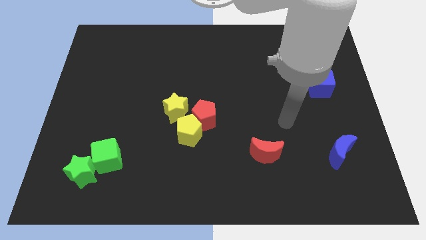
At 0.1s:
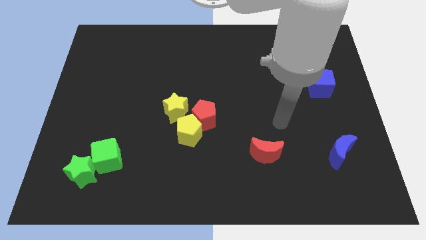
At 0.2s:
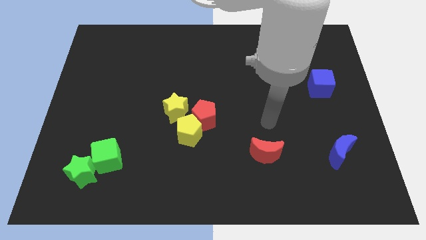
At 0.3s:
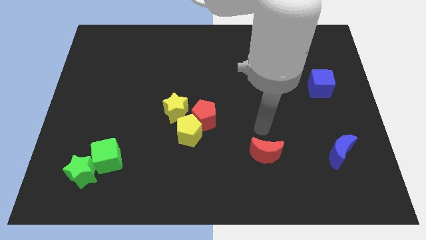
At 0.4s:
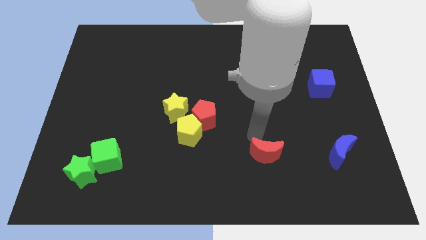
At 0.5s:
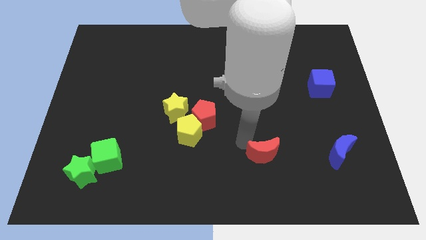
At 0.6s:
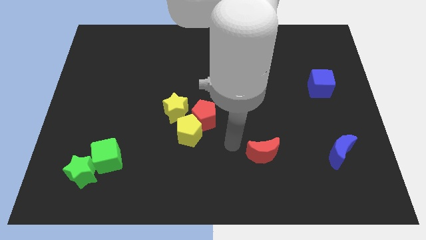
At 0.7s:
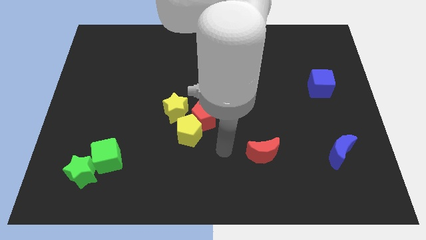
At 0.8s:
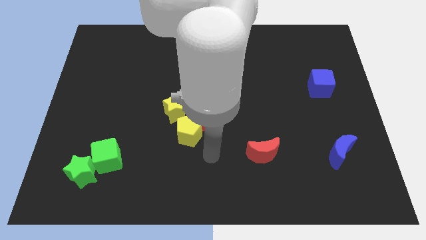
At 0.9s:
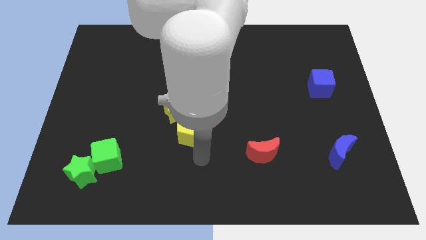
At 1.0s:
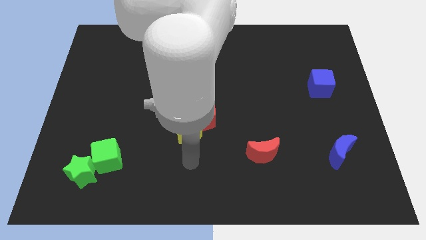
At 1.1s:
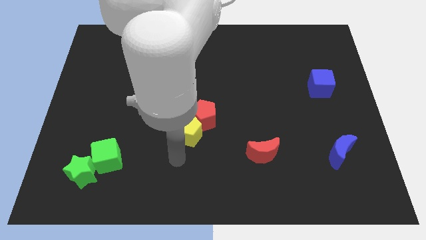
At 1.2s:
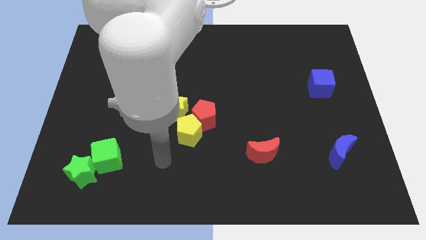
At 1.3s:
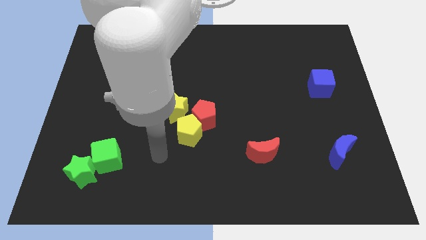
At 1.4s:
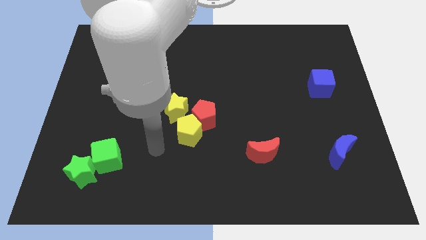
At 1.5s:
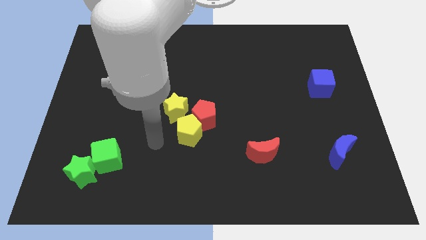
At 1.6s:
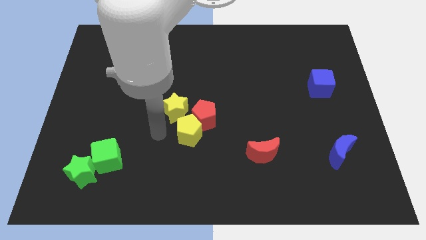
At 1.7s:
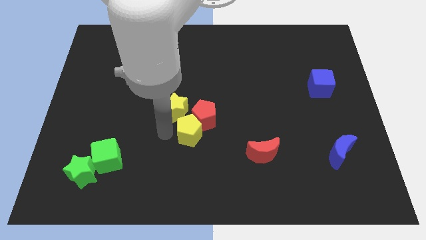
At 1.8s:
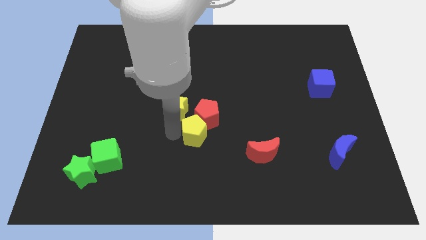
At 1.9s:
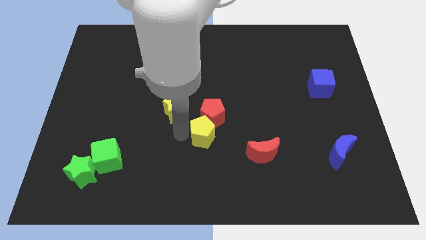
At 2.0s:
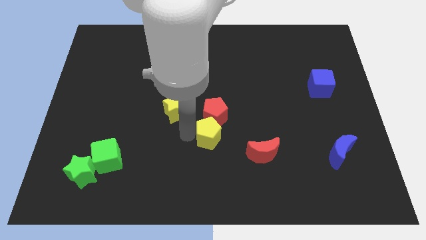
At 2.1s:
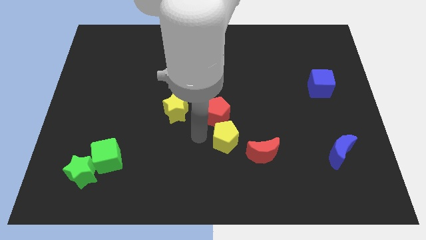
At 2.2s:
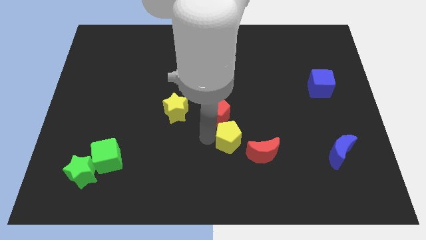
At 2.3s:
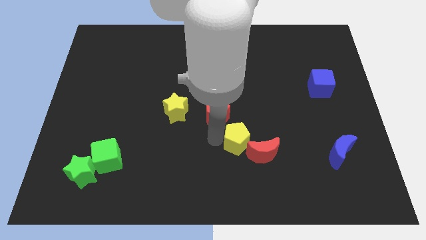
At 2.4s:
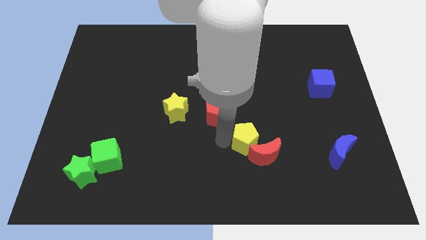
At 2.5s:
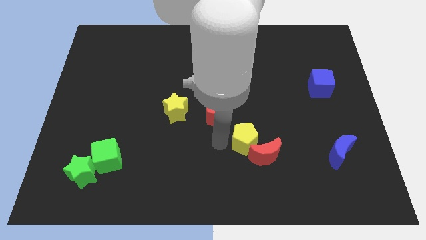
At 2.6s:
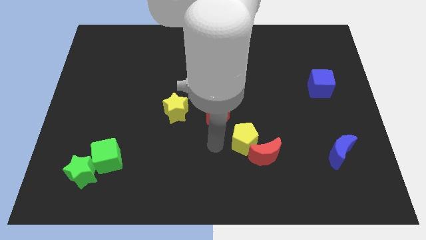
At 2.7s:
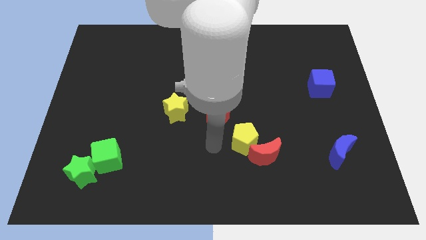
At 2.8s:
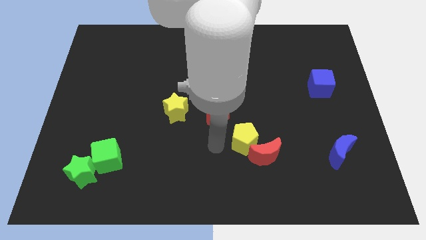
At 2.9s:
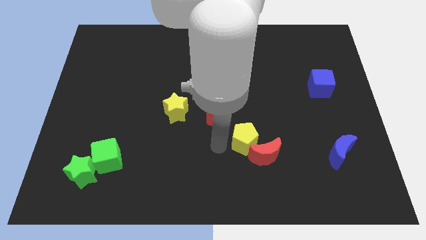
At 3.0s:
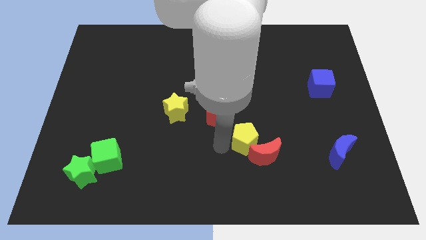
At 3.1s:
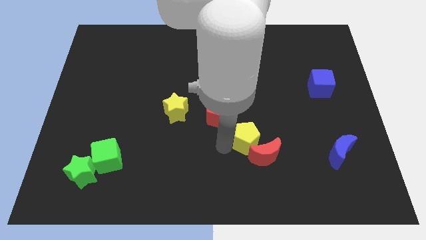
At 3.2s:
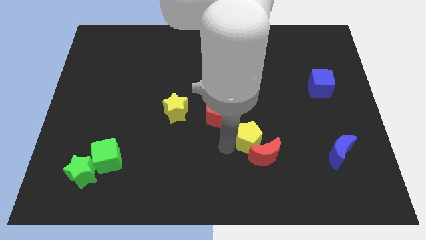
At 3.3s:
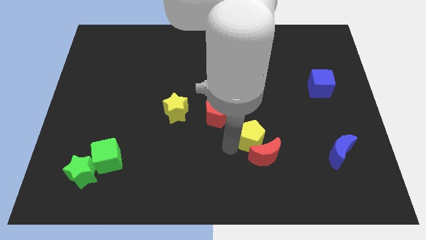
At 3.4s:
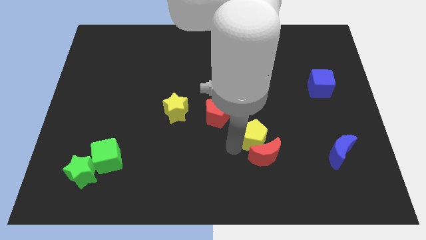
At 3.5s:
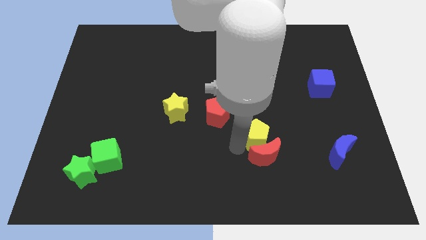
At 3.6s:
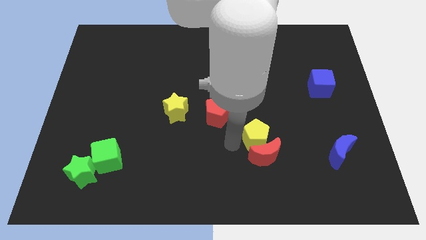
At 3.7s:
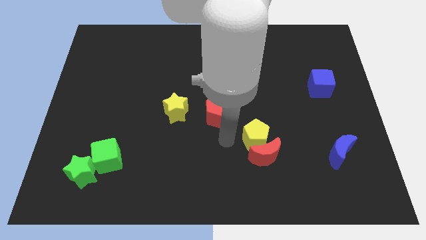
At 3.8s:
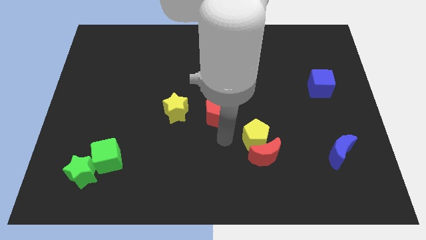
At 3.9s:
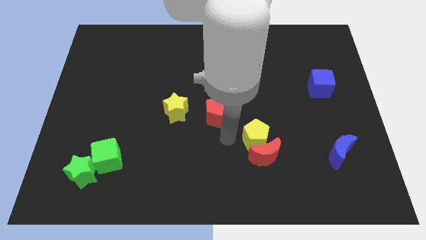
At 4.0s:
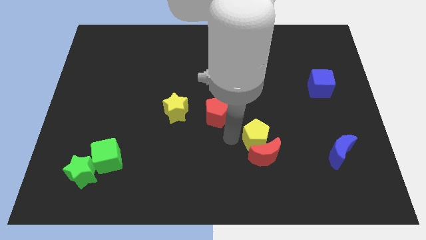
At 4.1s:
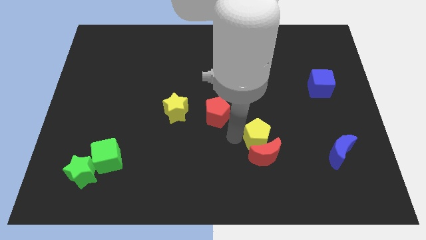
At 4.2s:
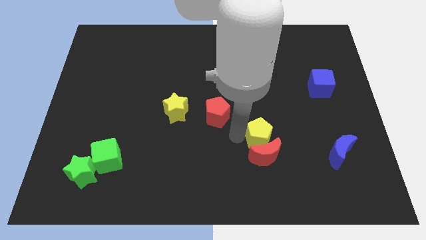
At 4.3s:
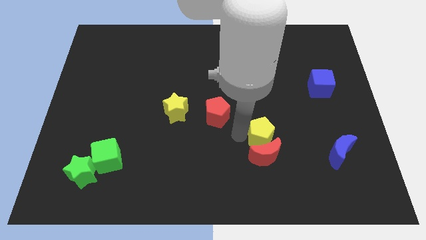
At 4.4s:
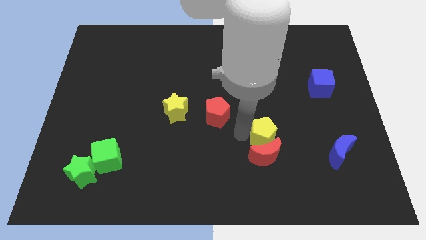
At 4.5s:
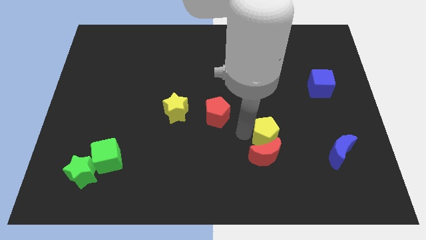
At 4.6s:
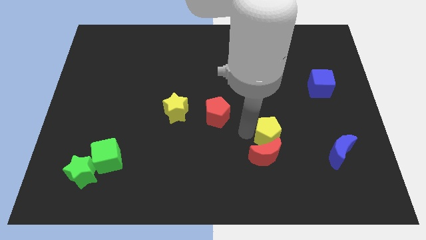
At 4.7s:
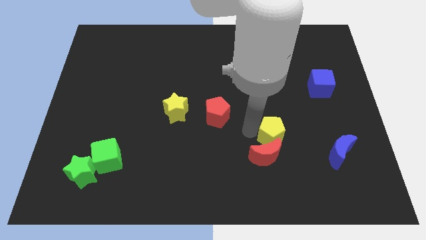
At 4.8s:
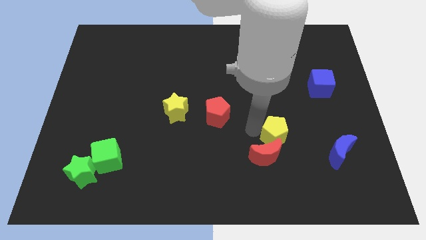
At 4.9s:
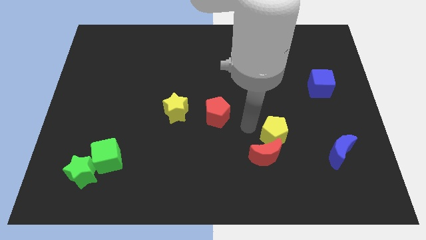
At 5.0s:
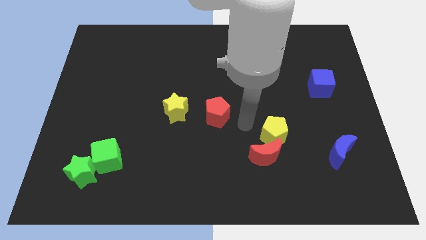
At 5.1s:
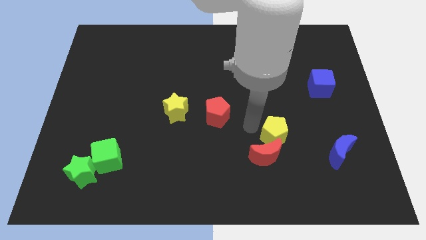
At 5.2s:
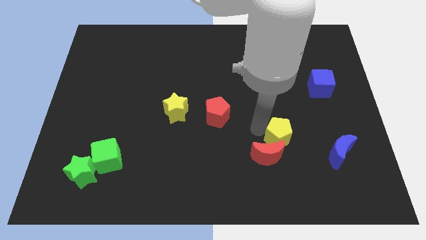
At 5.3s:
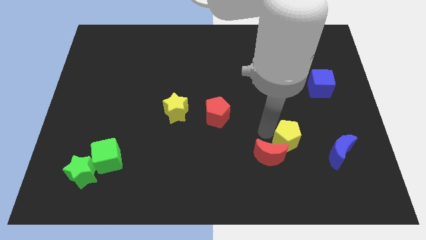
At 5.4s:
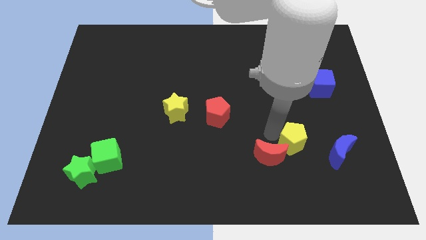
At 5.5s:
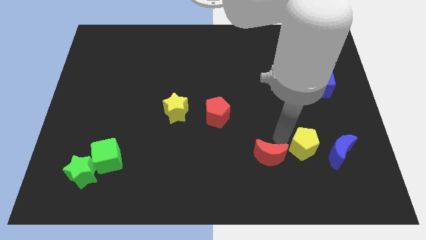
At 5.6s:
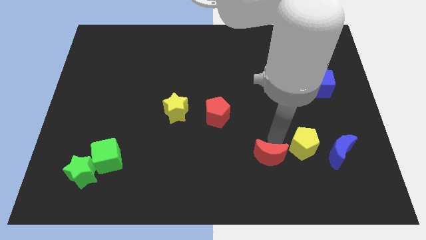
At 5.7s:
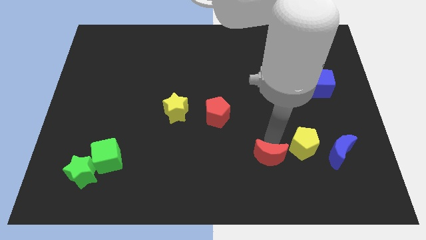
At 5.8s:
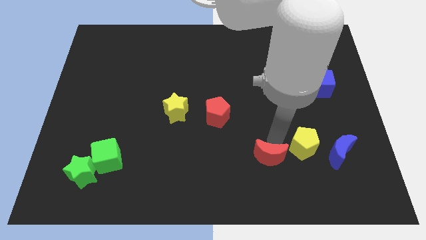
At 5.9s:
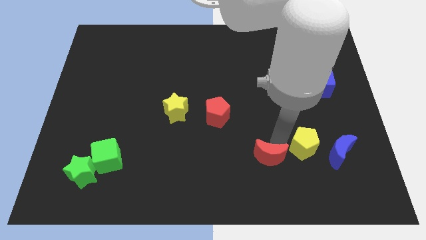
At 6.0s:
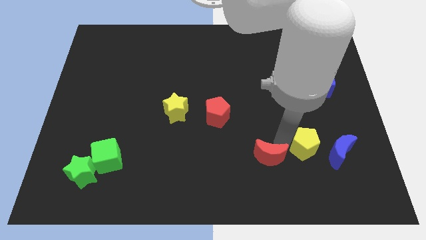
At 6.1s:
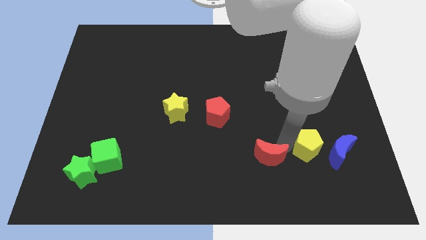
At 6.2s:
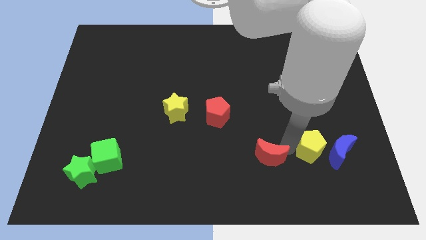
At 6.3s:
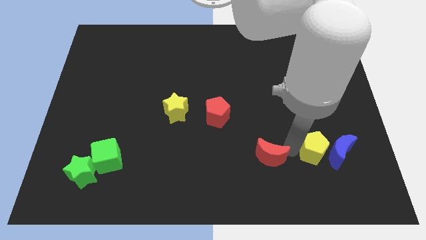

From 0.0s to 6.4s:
slide the yellow pentagon towards the blue moon
